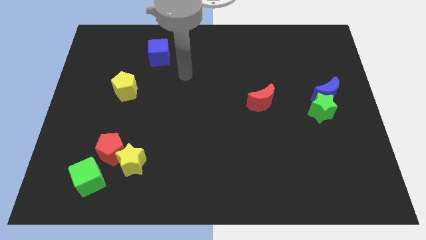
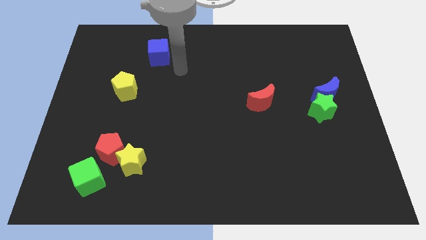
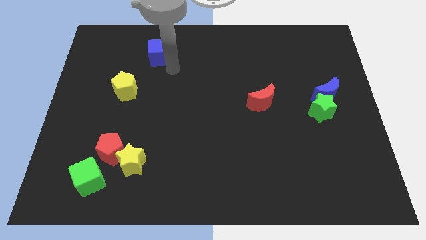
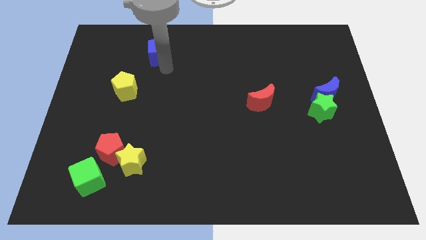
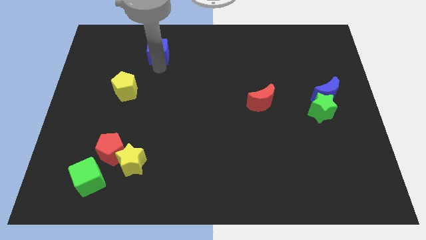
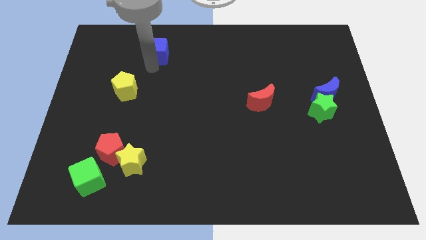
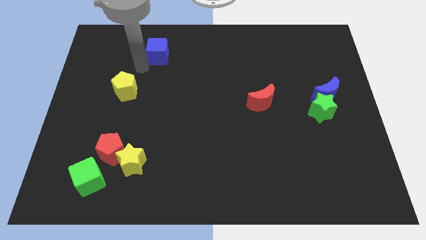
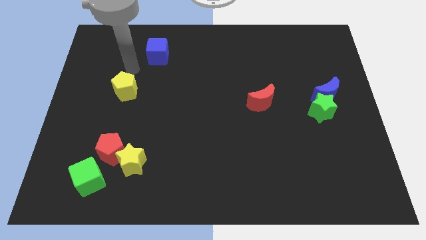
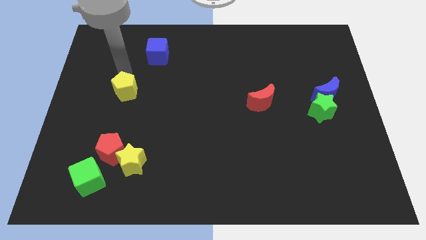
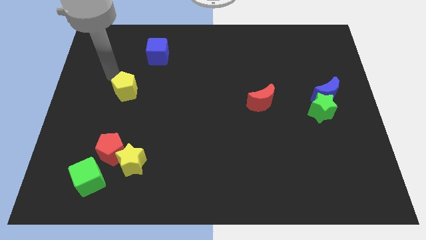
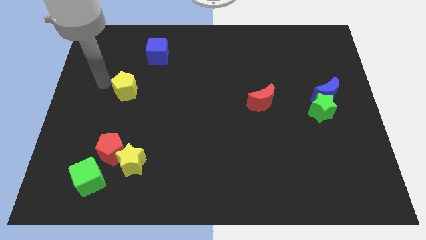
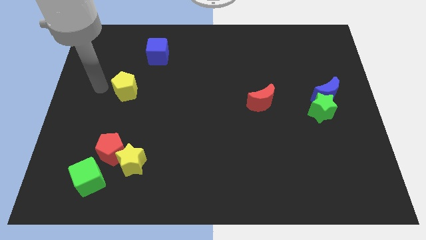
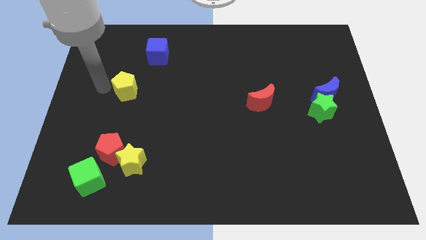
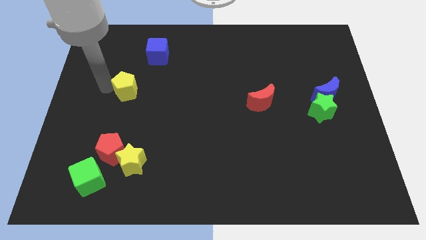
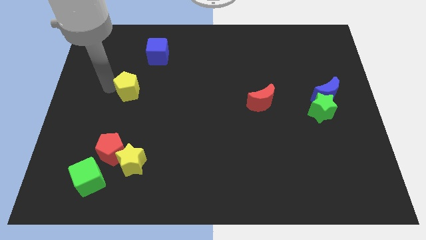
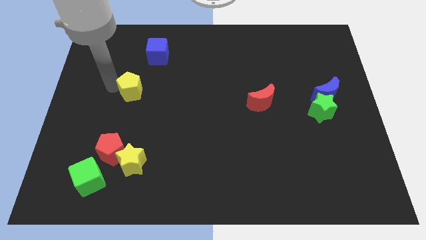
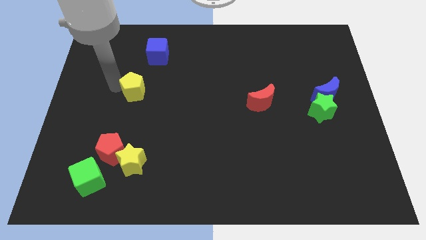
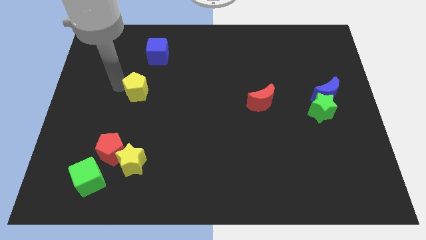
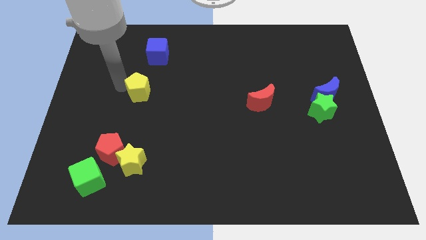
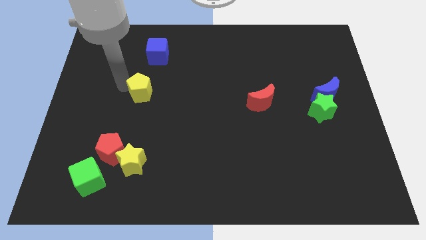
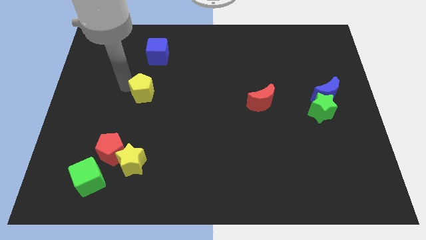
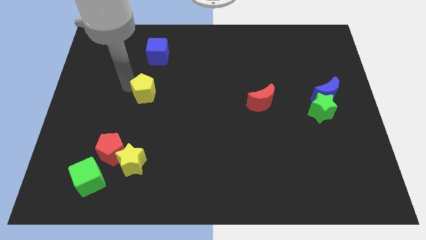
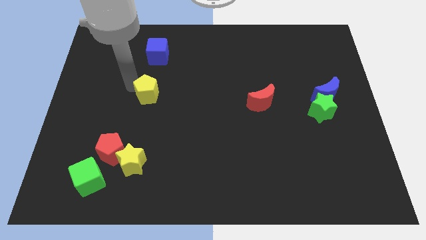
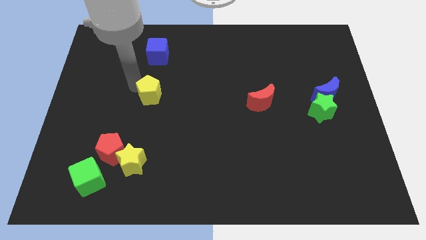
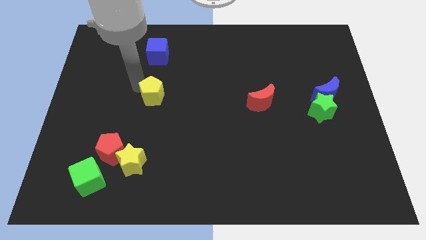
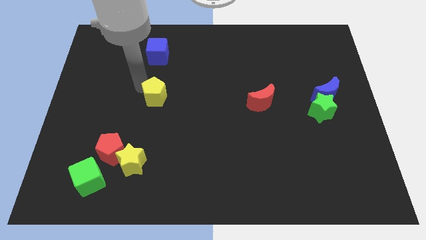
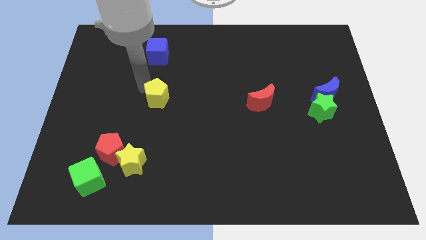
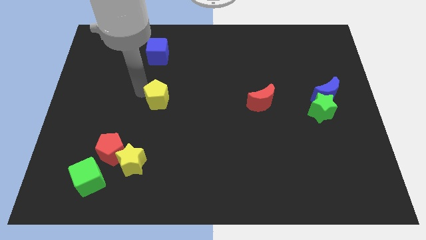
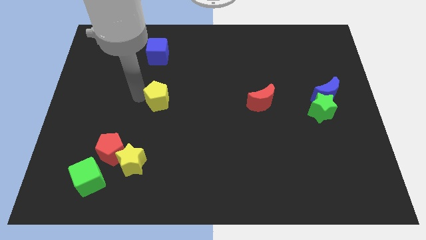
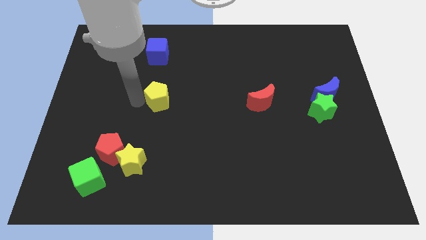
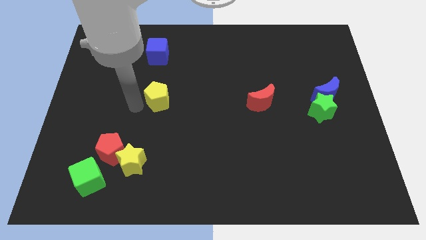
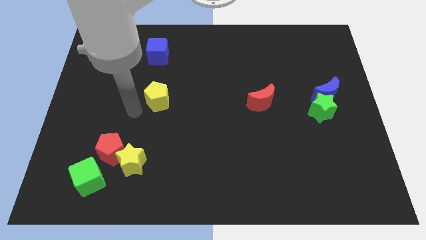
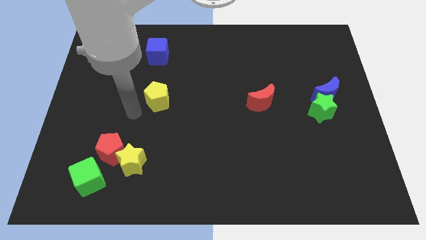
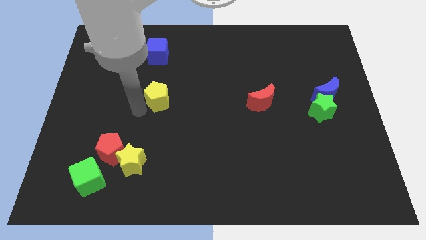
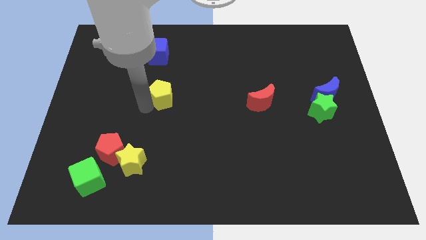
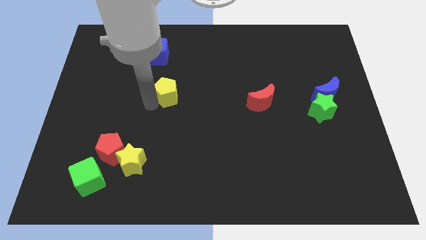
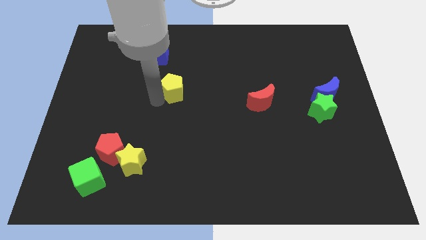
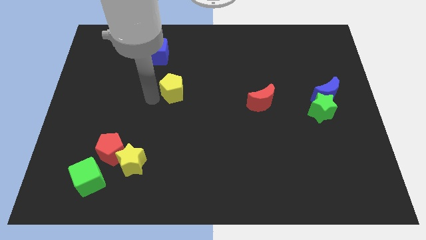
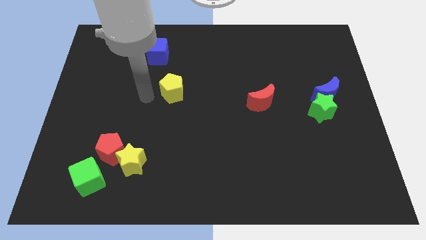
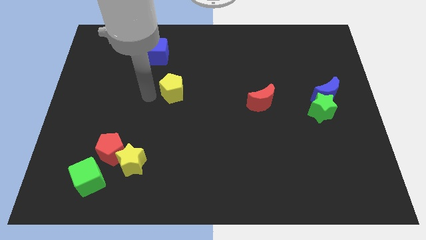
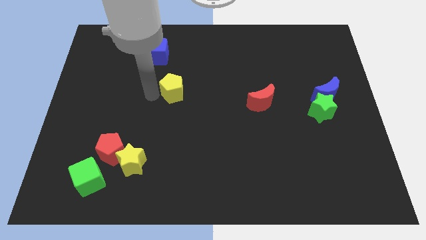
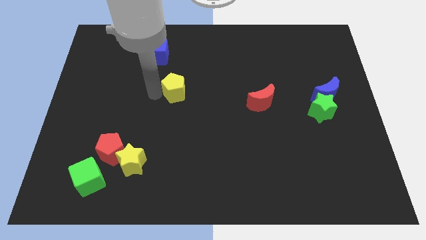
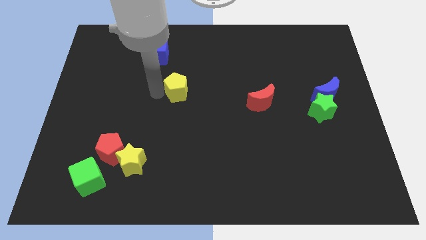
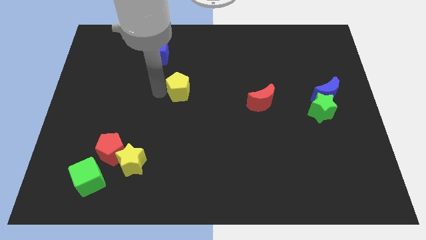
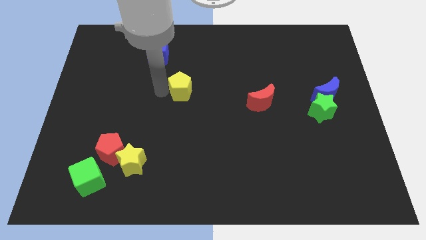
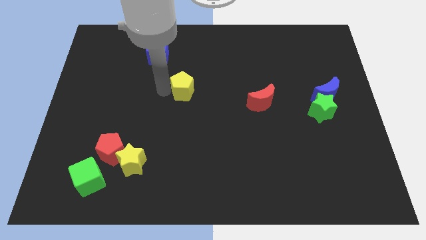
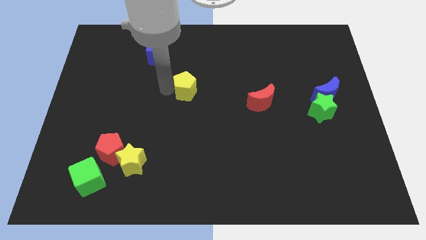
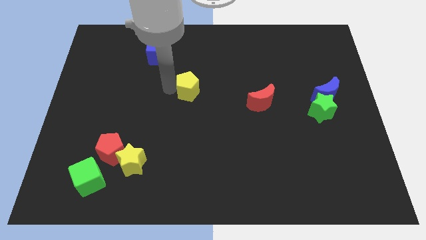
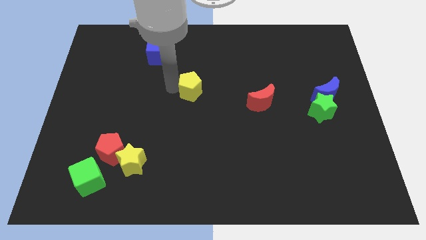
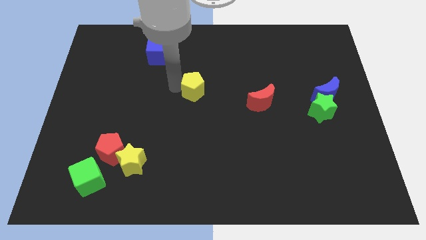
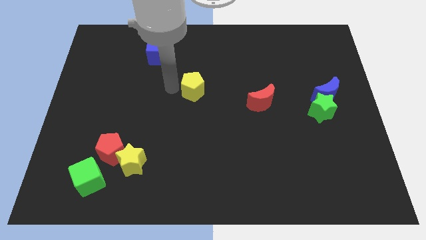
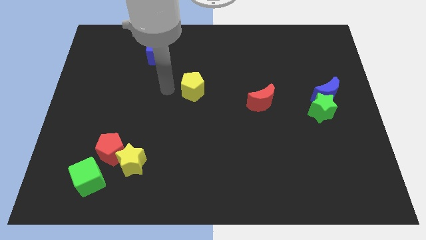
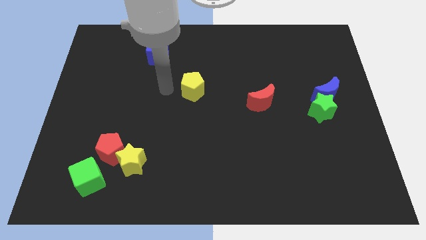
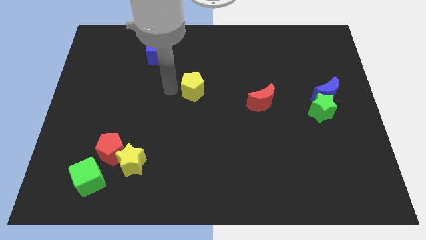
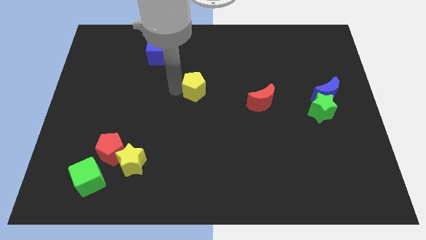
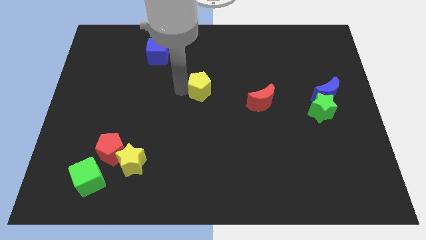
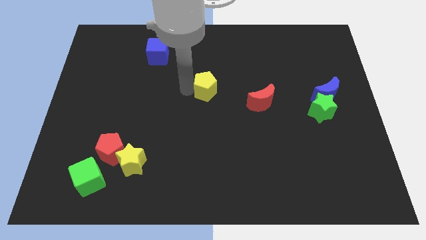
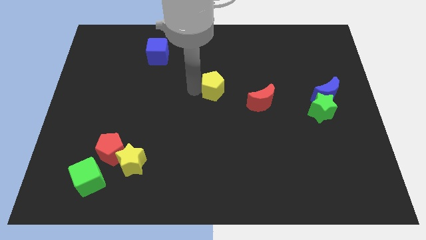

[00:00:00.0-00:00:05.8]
move the yellow pentagon to the right

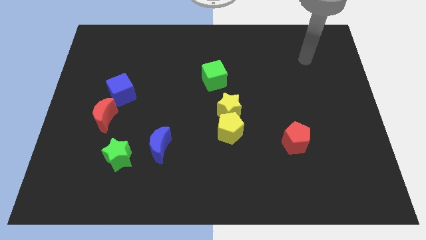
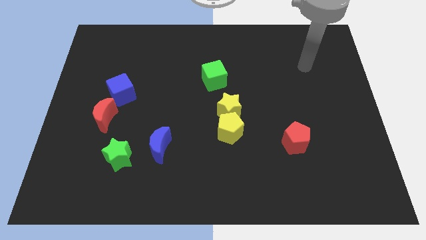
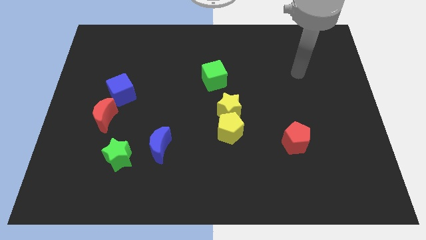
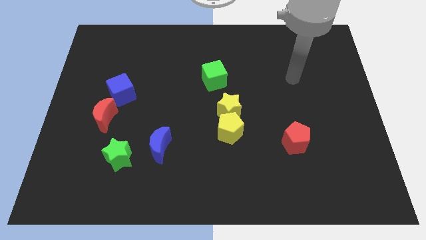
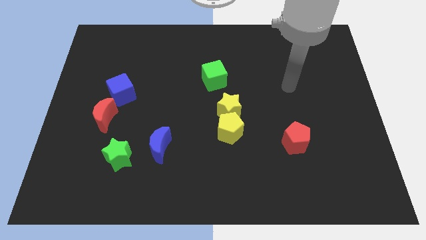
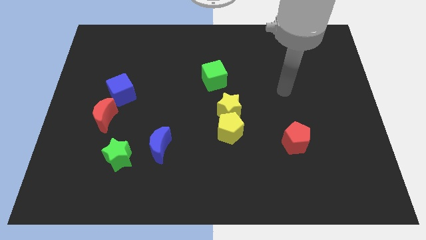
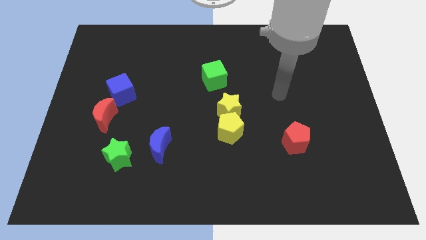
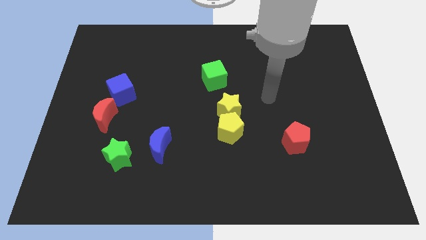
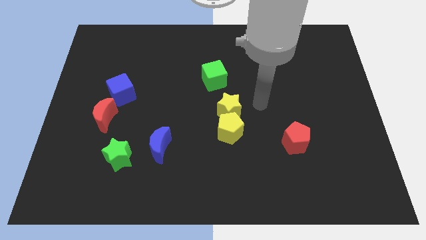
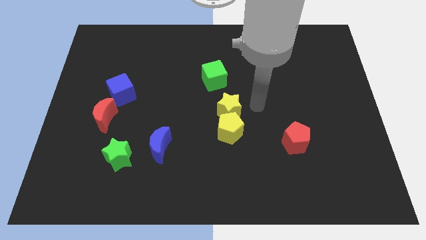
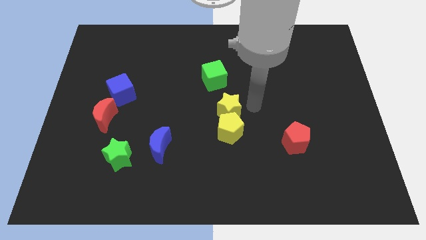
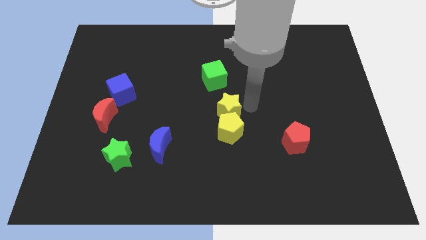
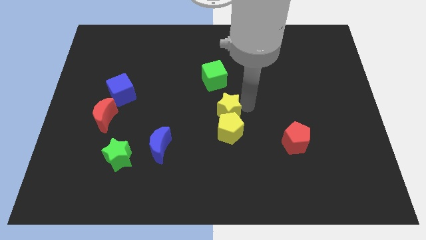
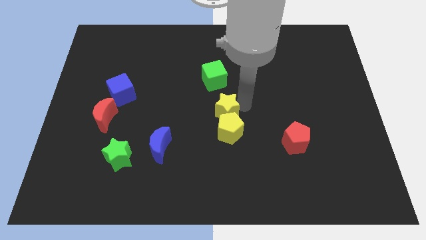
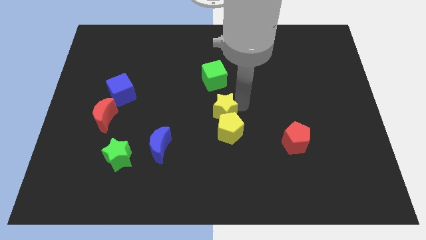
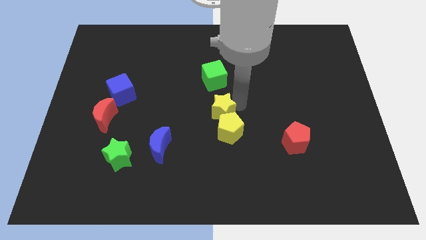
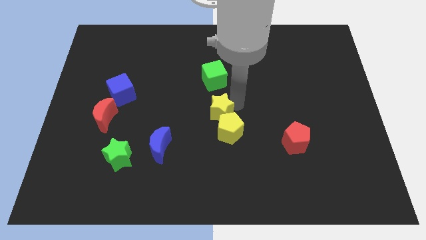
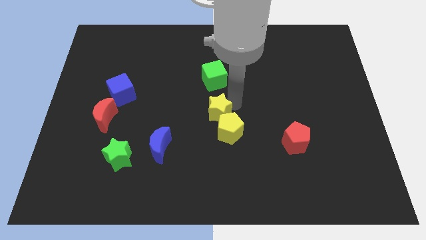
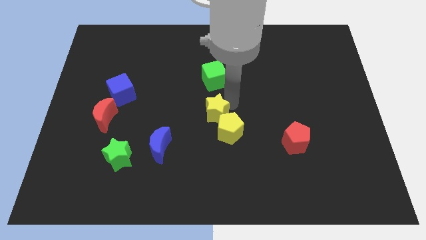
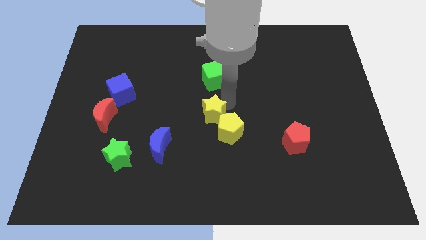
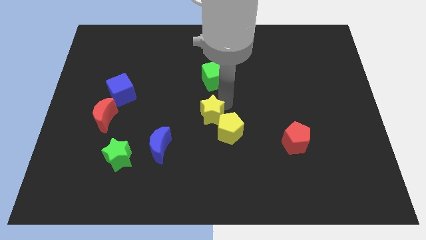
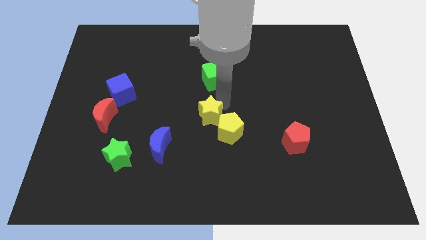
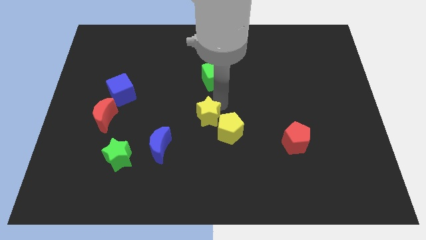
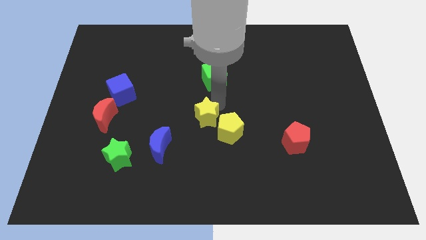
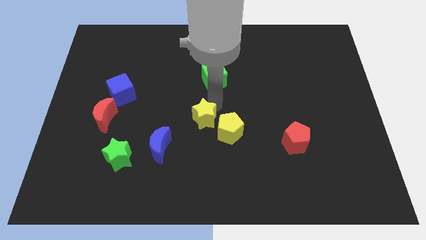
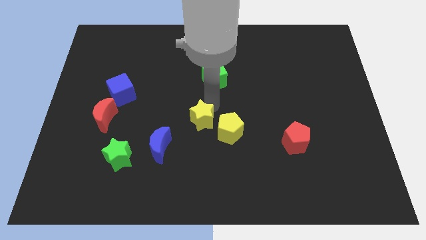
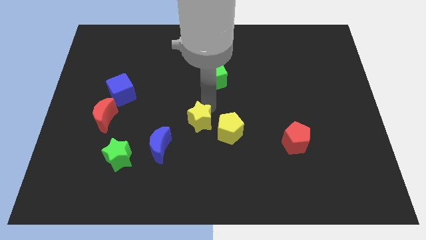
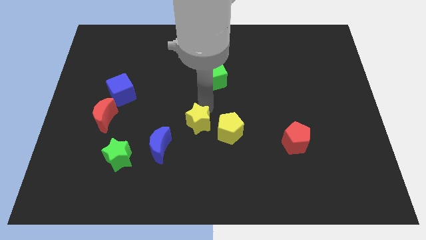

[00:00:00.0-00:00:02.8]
slightly slide the yellow star downwards and then to the left
